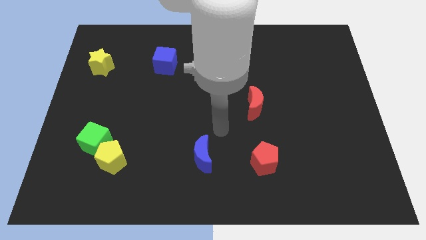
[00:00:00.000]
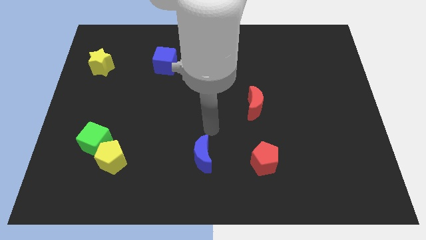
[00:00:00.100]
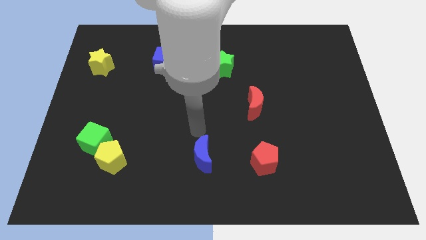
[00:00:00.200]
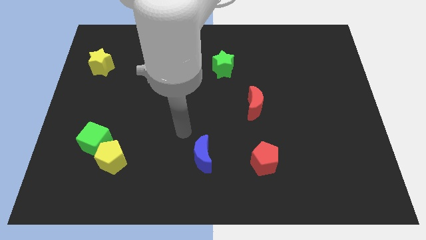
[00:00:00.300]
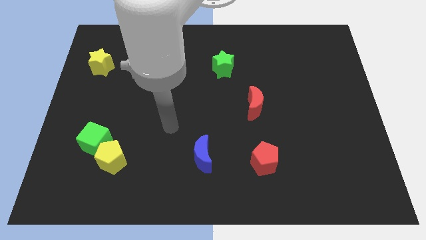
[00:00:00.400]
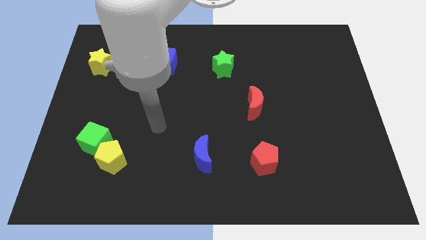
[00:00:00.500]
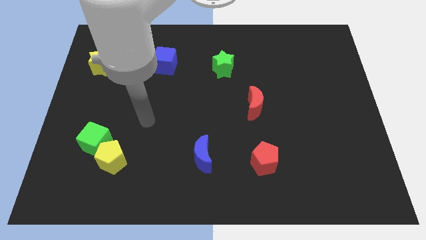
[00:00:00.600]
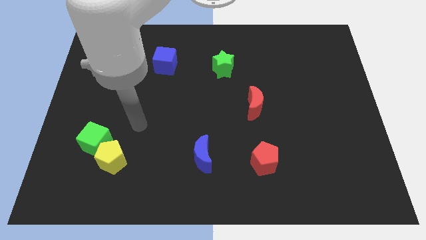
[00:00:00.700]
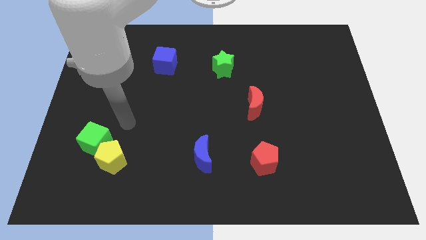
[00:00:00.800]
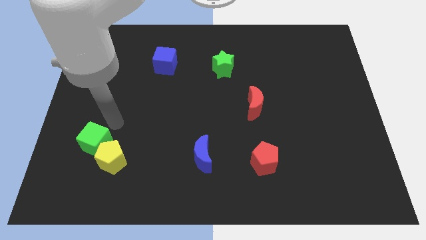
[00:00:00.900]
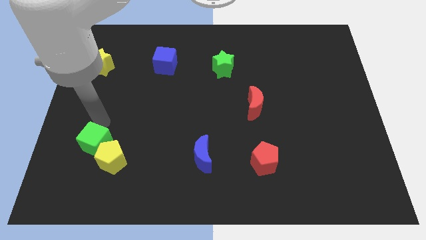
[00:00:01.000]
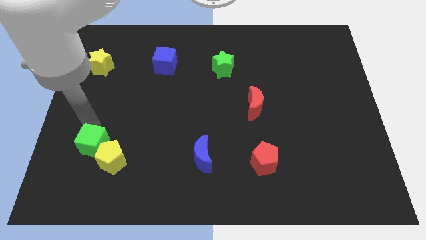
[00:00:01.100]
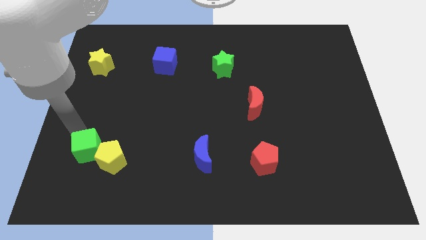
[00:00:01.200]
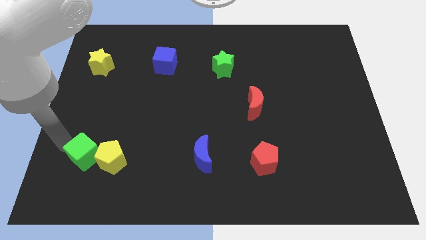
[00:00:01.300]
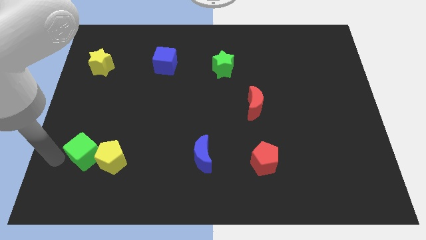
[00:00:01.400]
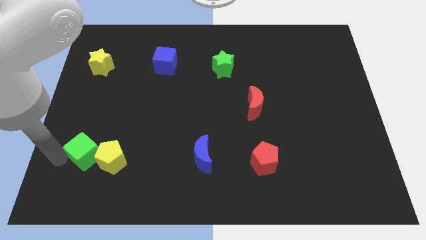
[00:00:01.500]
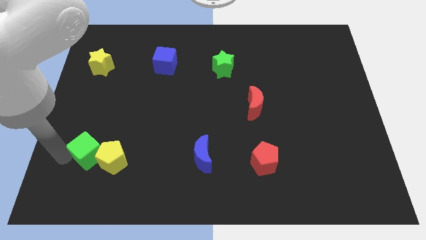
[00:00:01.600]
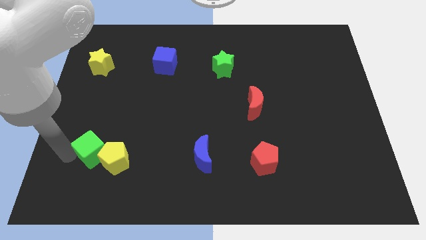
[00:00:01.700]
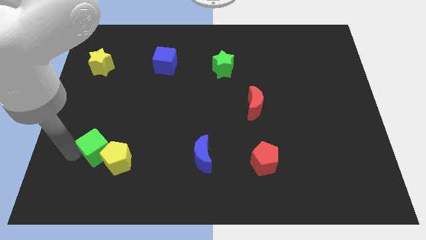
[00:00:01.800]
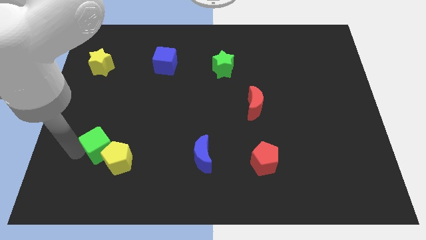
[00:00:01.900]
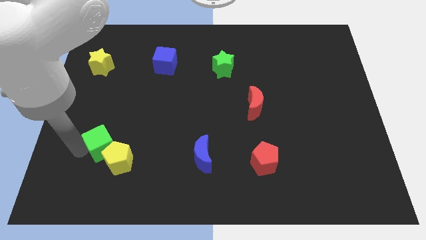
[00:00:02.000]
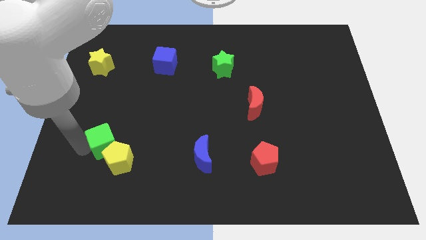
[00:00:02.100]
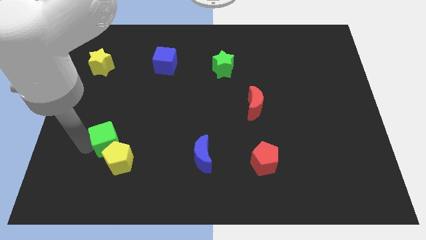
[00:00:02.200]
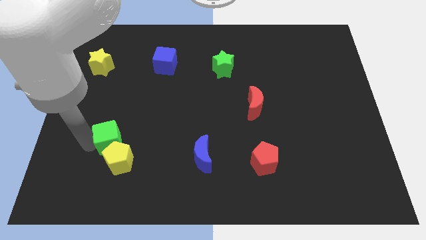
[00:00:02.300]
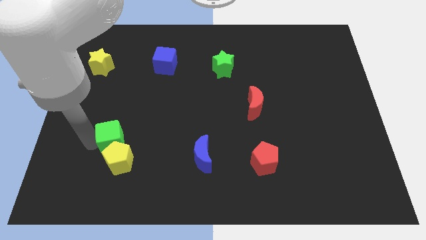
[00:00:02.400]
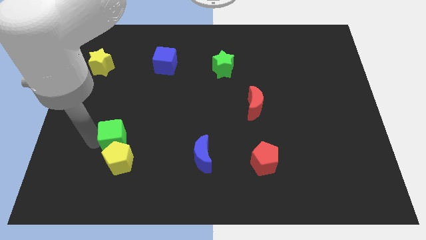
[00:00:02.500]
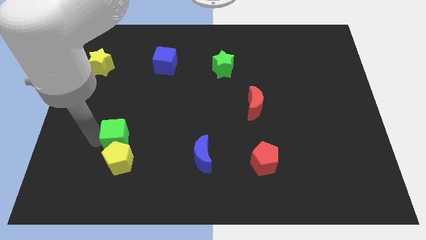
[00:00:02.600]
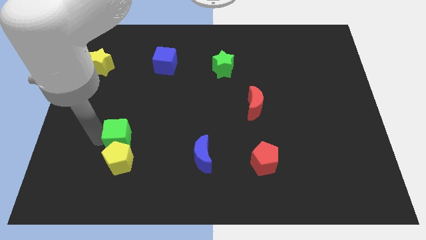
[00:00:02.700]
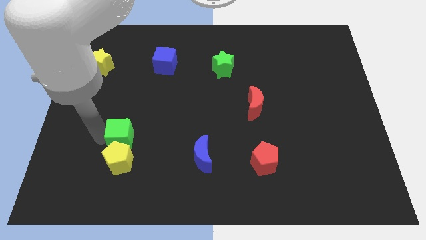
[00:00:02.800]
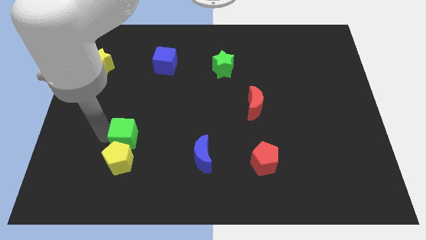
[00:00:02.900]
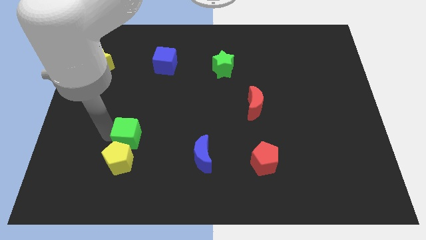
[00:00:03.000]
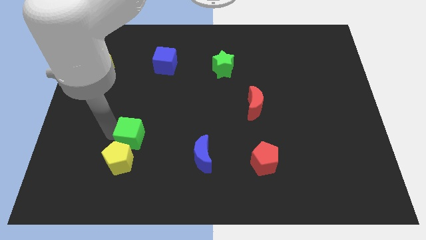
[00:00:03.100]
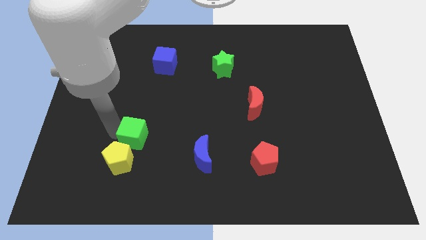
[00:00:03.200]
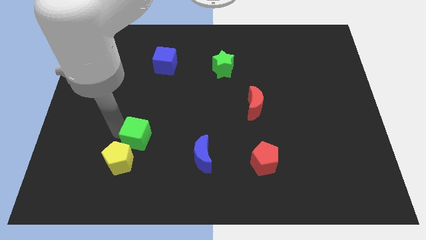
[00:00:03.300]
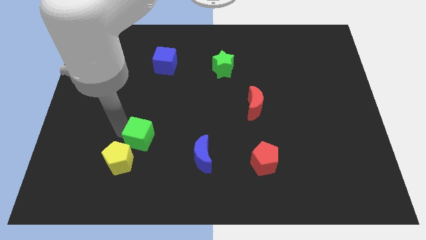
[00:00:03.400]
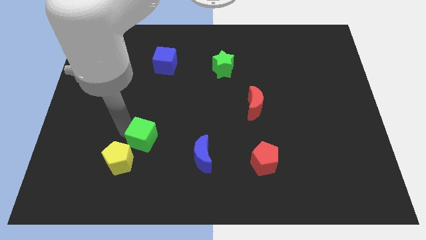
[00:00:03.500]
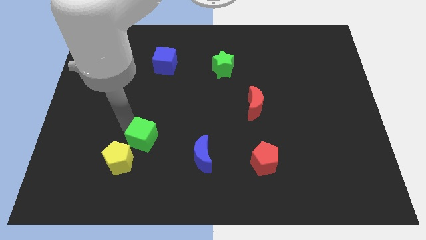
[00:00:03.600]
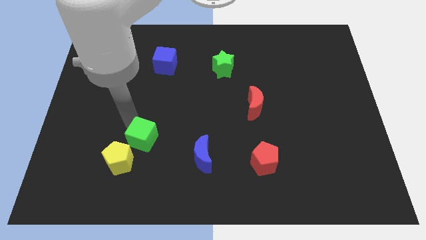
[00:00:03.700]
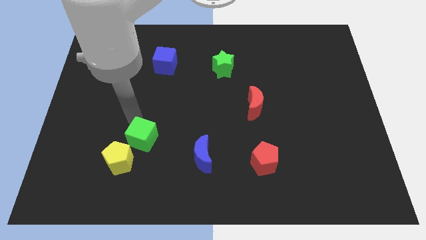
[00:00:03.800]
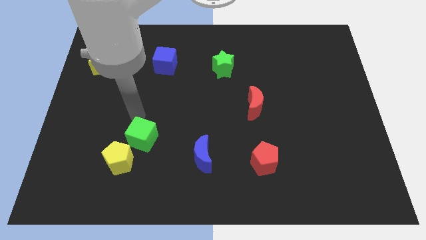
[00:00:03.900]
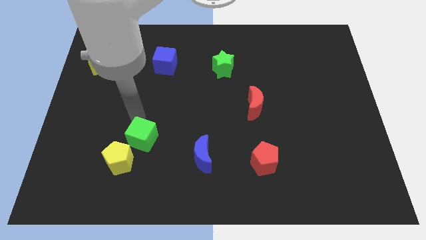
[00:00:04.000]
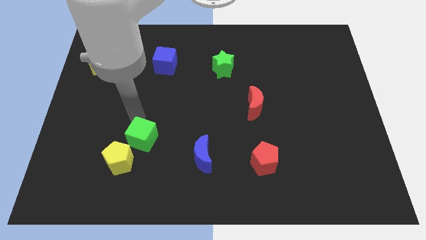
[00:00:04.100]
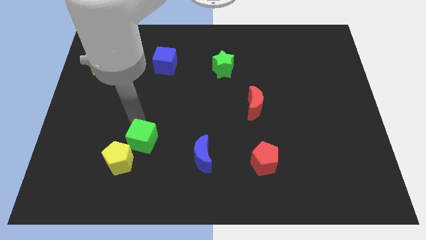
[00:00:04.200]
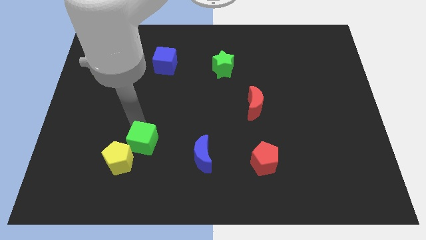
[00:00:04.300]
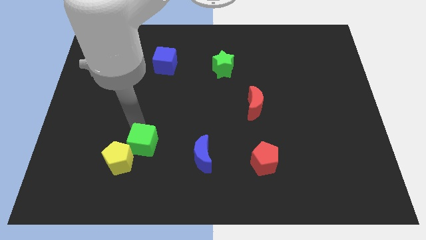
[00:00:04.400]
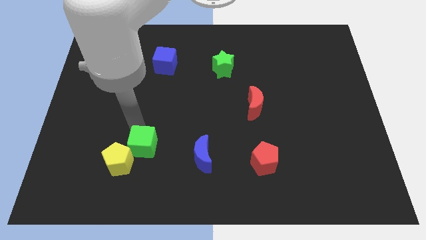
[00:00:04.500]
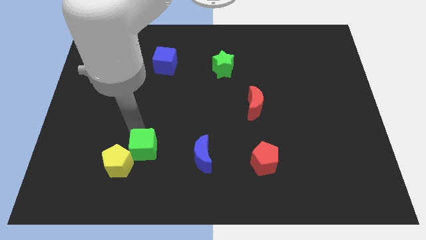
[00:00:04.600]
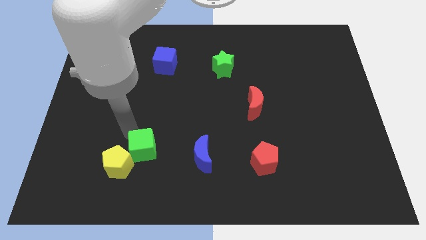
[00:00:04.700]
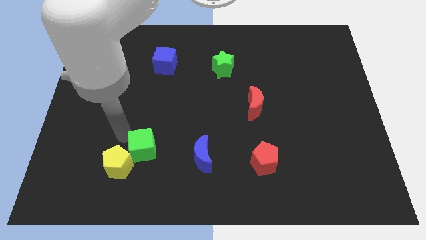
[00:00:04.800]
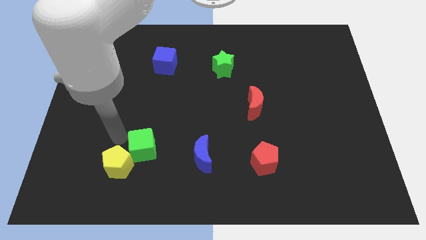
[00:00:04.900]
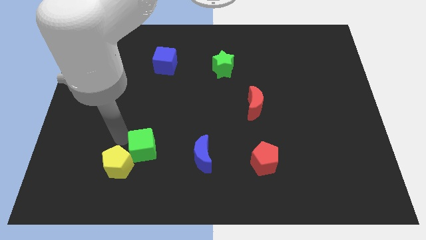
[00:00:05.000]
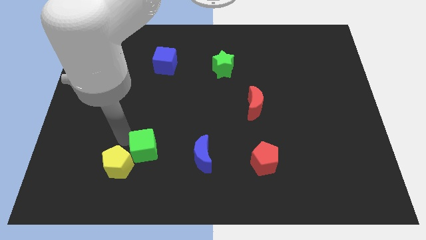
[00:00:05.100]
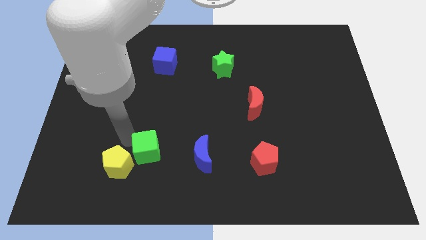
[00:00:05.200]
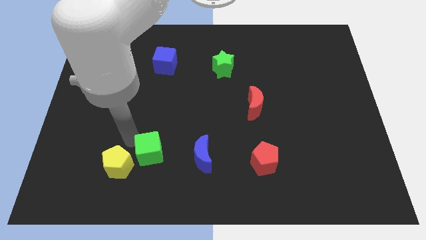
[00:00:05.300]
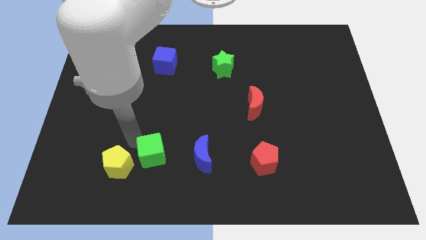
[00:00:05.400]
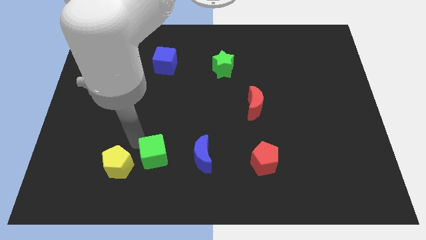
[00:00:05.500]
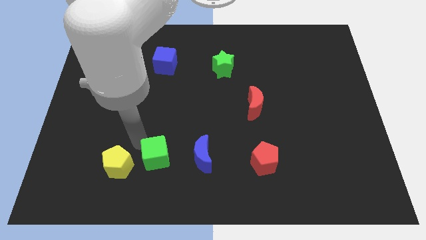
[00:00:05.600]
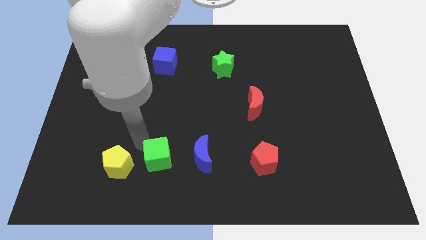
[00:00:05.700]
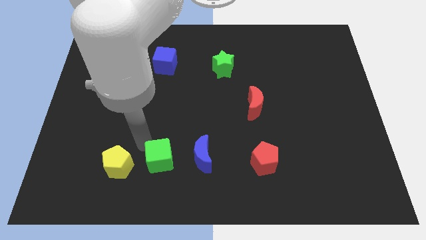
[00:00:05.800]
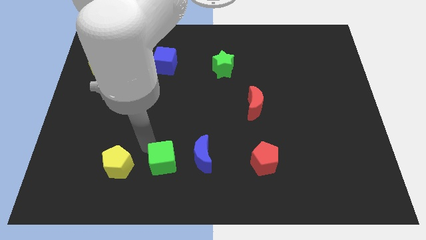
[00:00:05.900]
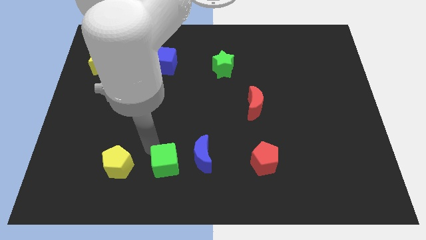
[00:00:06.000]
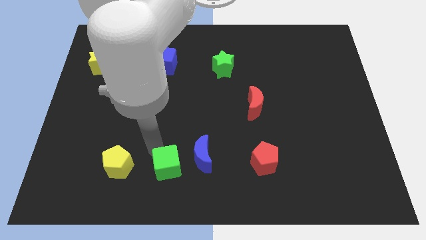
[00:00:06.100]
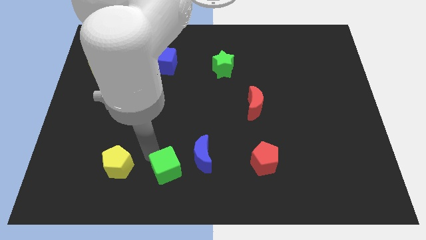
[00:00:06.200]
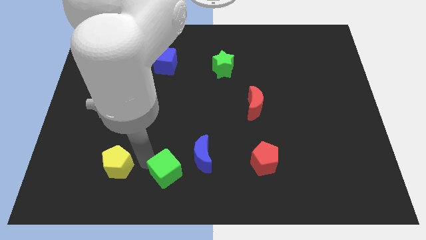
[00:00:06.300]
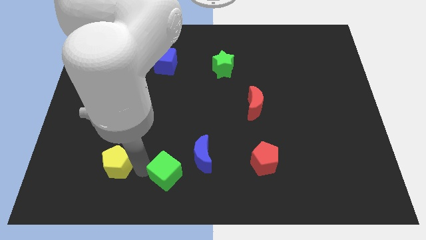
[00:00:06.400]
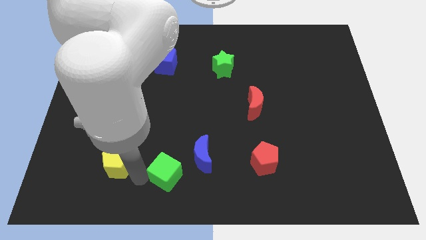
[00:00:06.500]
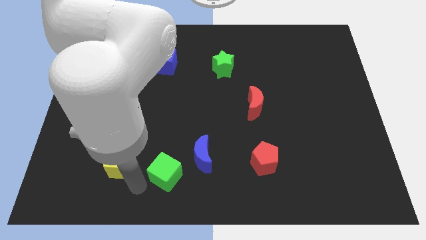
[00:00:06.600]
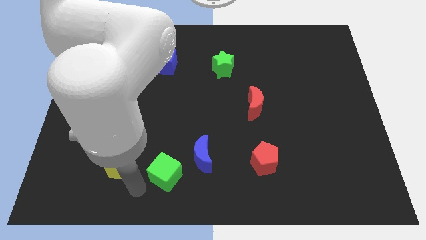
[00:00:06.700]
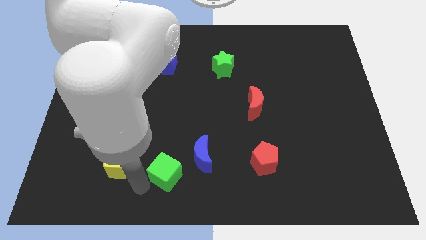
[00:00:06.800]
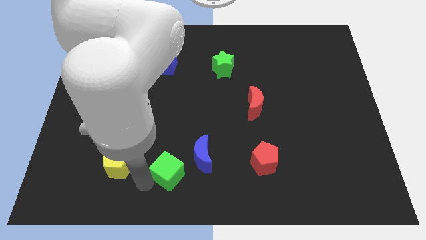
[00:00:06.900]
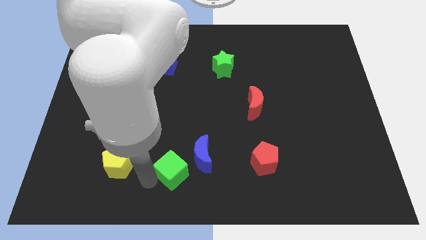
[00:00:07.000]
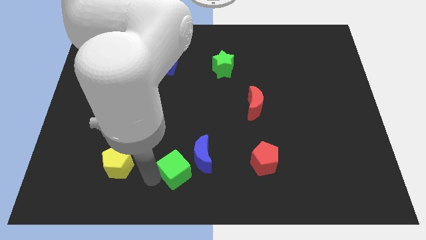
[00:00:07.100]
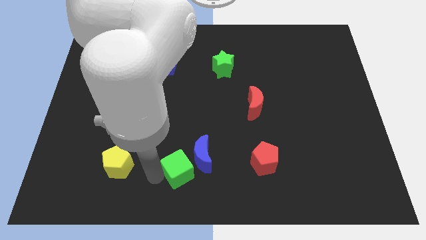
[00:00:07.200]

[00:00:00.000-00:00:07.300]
push the green cube next to the blue moon

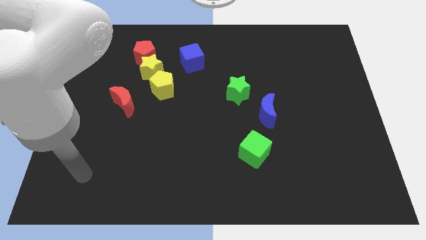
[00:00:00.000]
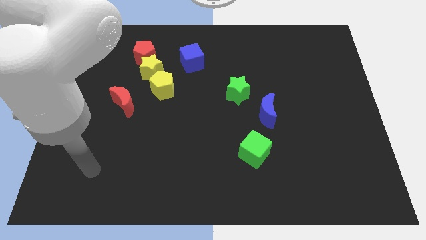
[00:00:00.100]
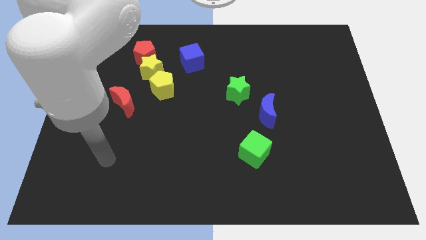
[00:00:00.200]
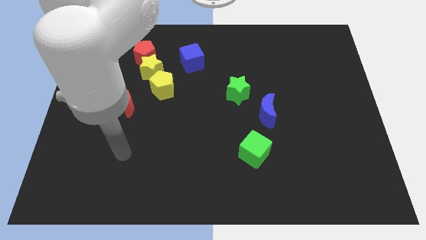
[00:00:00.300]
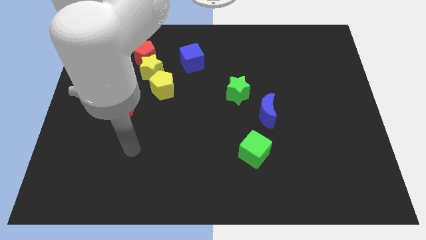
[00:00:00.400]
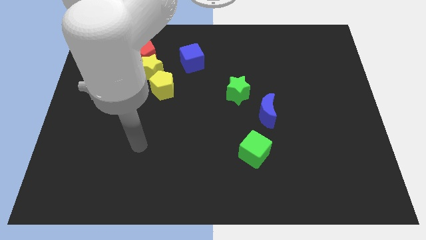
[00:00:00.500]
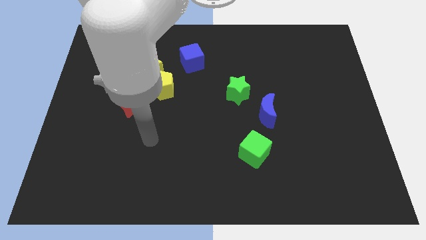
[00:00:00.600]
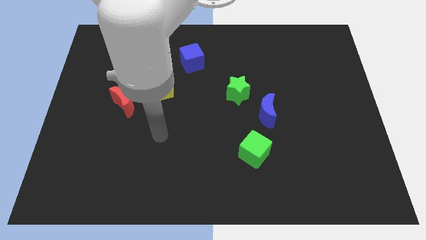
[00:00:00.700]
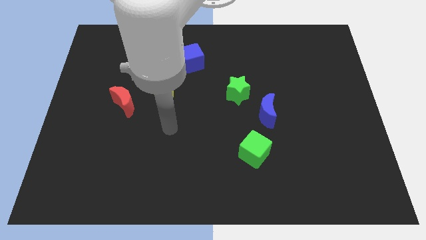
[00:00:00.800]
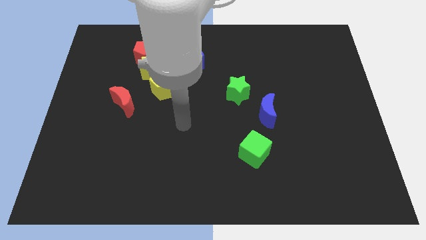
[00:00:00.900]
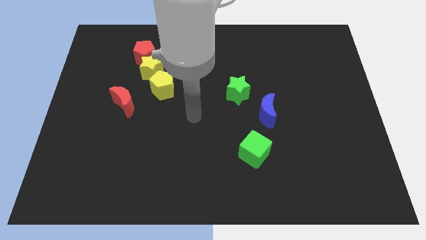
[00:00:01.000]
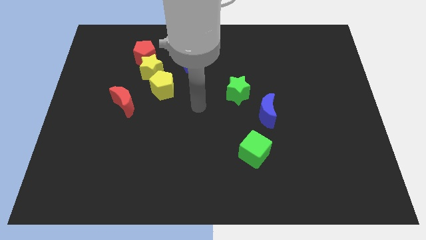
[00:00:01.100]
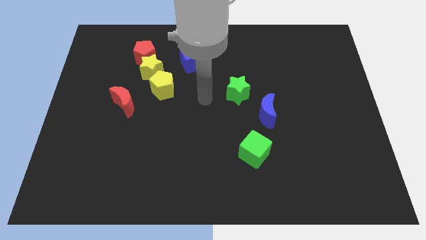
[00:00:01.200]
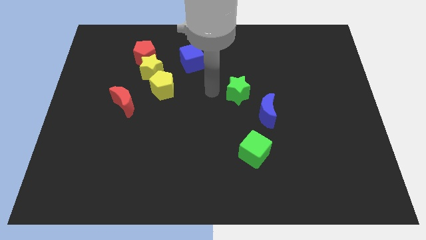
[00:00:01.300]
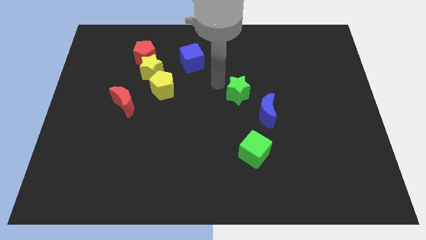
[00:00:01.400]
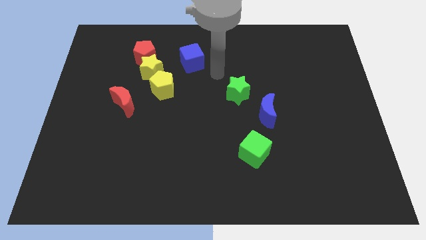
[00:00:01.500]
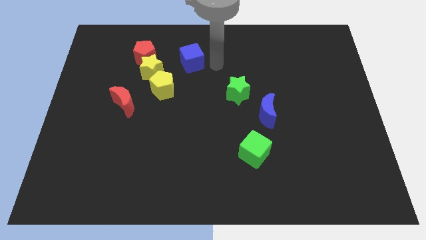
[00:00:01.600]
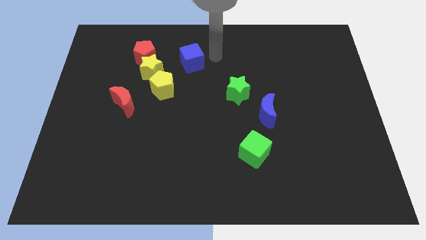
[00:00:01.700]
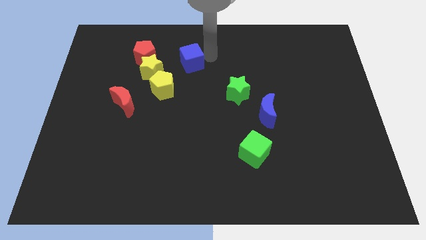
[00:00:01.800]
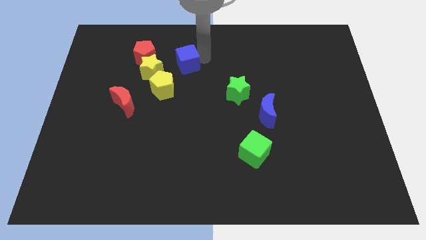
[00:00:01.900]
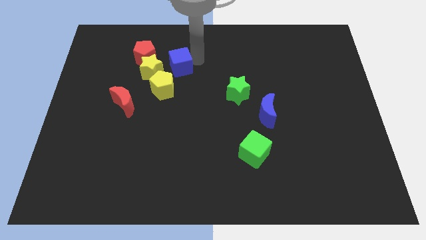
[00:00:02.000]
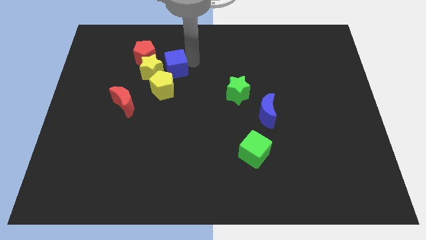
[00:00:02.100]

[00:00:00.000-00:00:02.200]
push the blue cube to the yellow star
